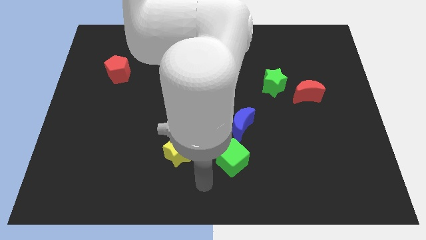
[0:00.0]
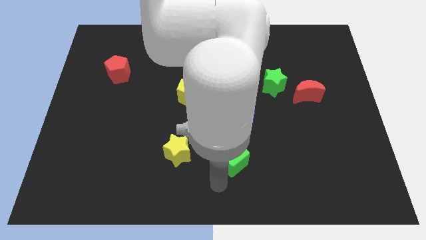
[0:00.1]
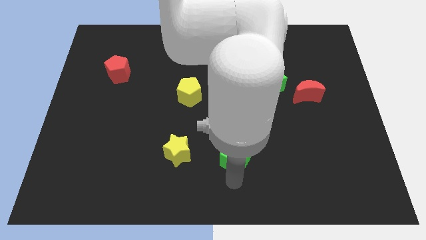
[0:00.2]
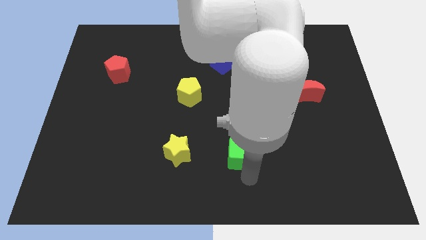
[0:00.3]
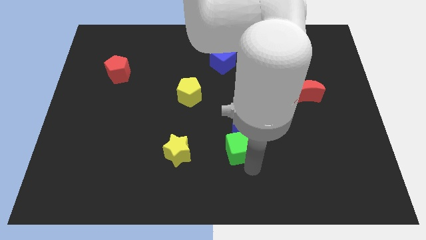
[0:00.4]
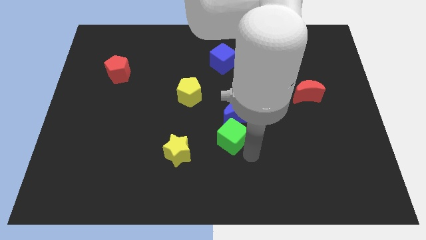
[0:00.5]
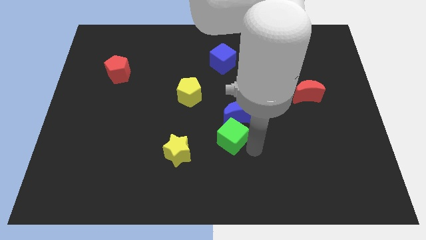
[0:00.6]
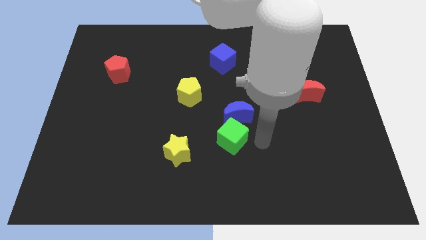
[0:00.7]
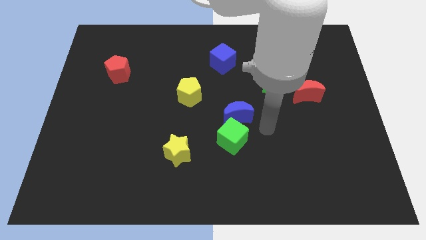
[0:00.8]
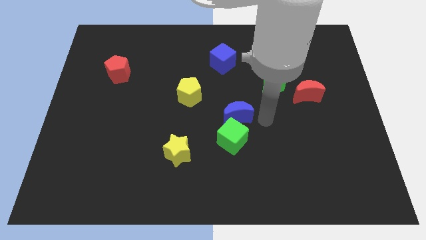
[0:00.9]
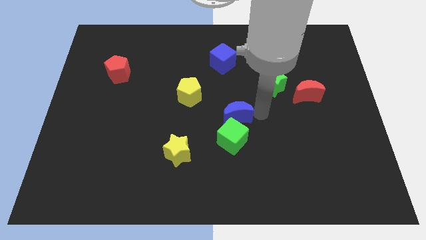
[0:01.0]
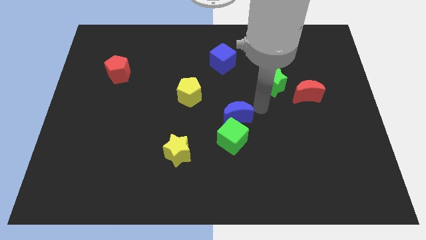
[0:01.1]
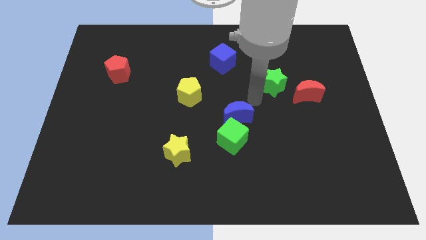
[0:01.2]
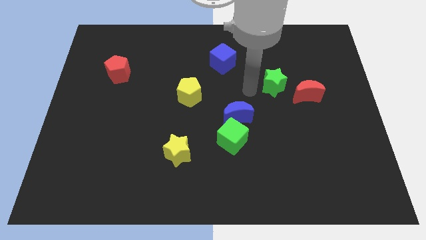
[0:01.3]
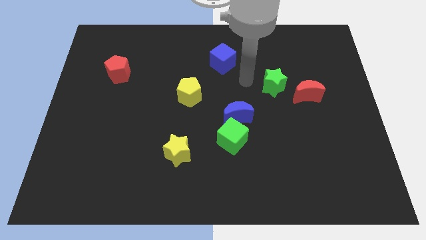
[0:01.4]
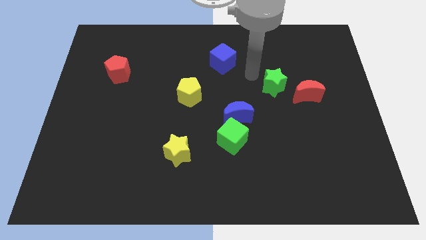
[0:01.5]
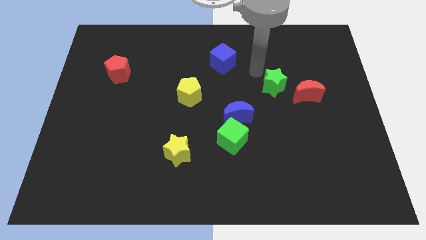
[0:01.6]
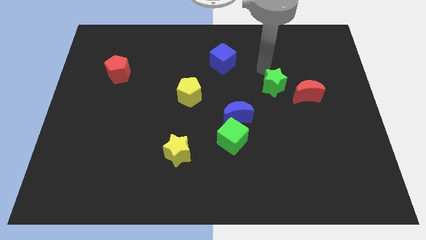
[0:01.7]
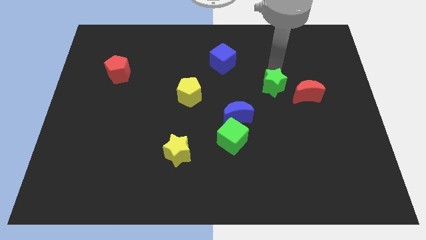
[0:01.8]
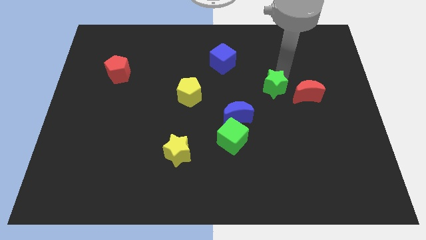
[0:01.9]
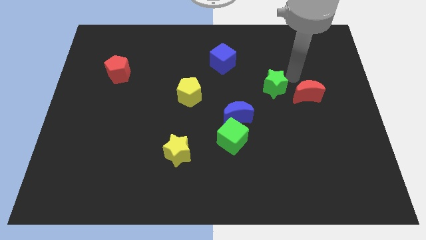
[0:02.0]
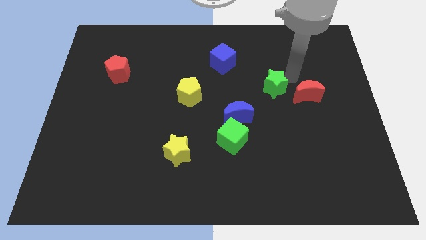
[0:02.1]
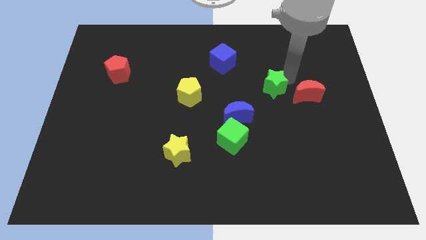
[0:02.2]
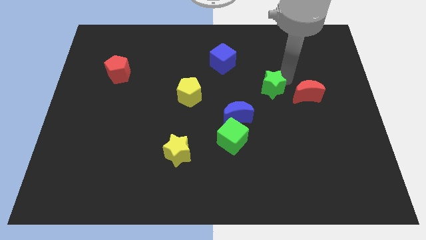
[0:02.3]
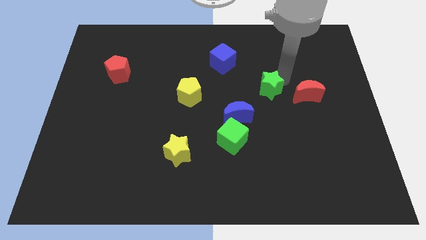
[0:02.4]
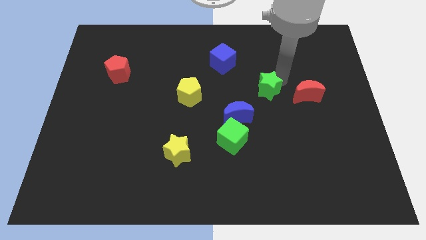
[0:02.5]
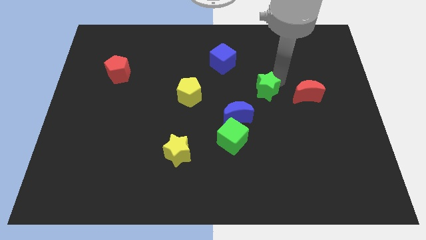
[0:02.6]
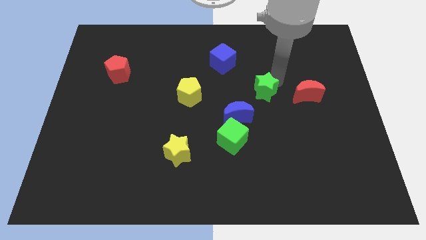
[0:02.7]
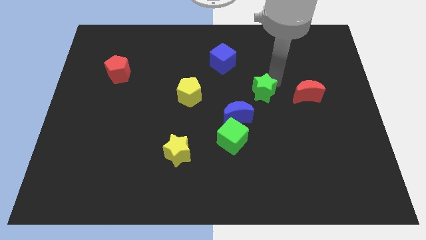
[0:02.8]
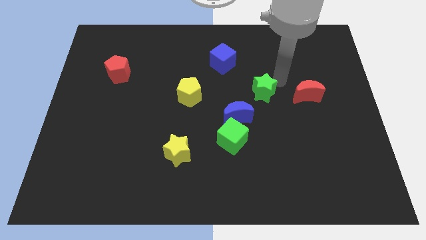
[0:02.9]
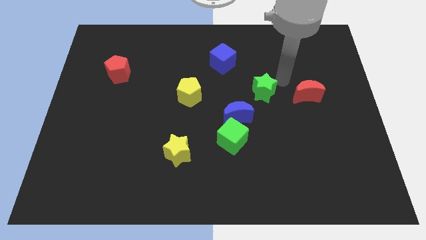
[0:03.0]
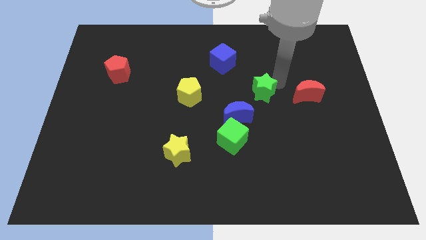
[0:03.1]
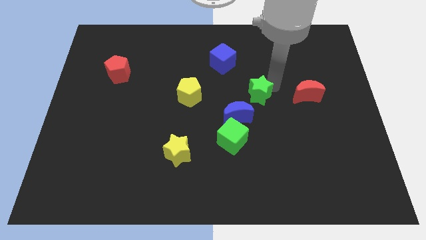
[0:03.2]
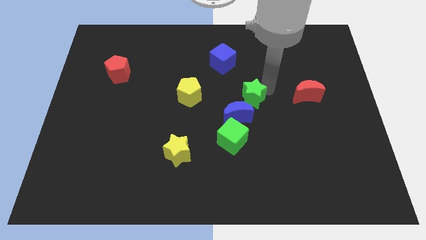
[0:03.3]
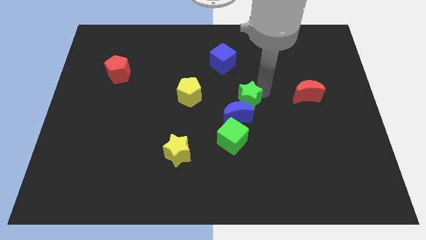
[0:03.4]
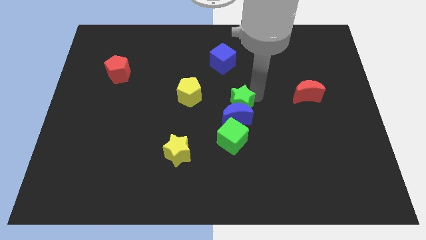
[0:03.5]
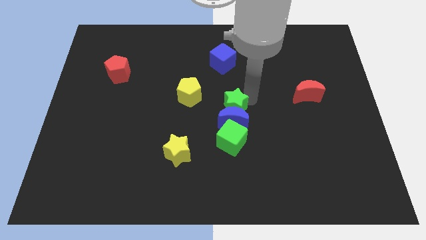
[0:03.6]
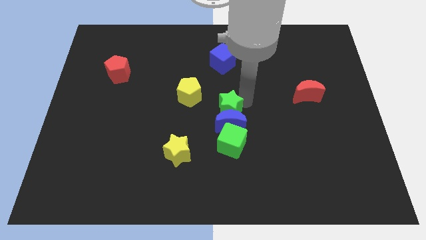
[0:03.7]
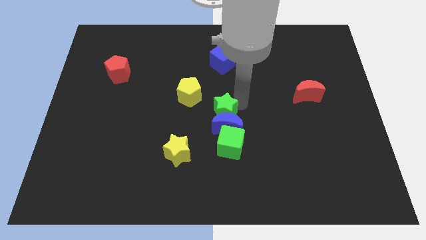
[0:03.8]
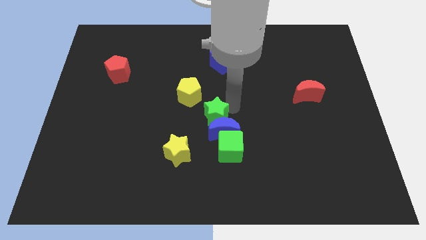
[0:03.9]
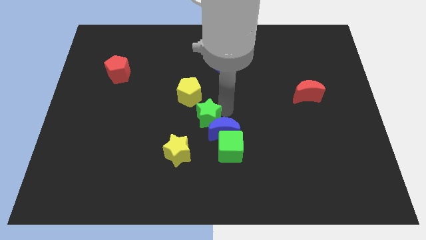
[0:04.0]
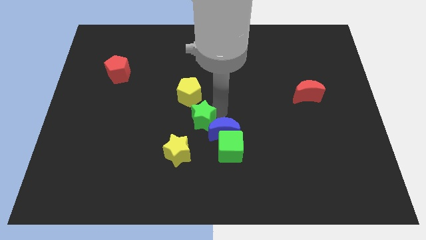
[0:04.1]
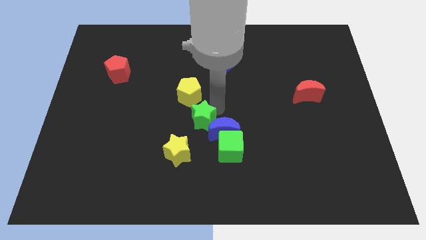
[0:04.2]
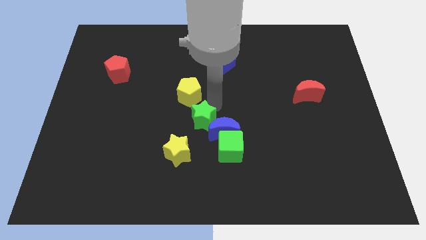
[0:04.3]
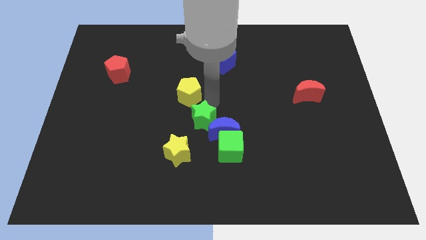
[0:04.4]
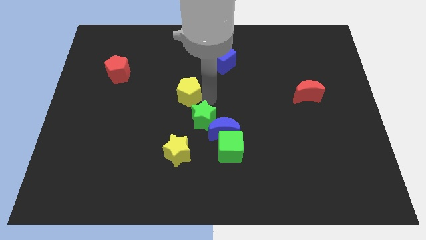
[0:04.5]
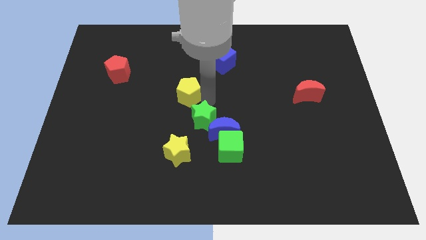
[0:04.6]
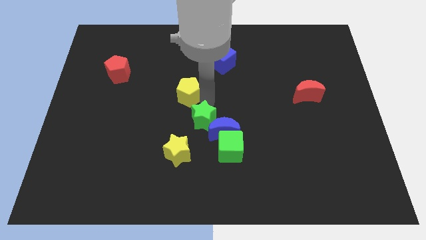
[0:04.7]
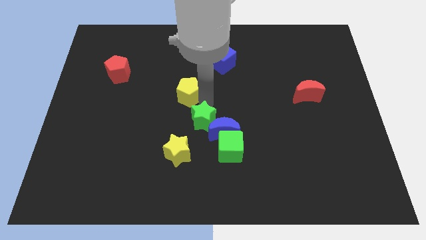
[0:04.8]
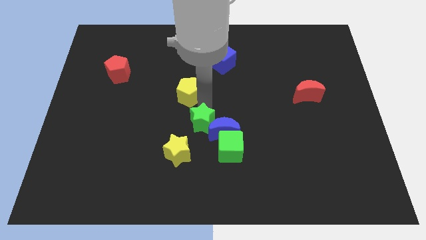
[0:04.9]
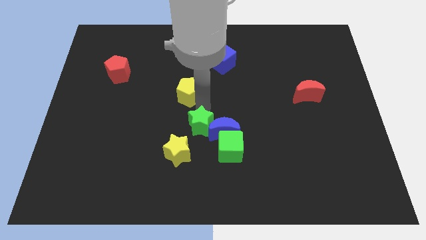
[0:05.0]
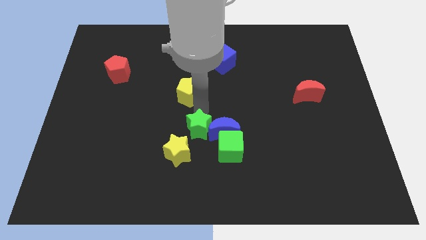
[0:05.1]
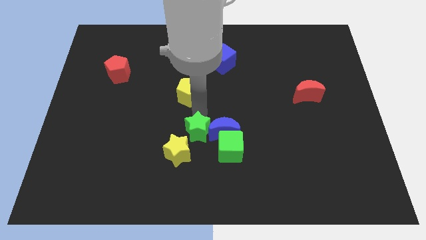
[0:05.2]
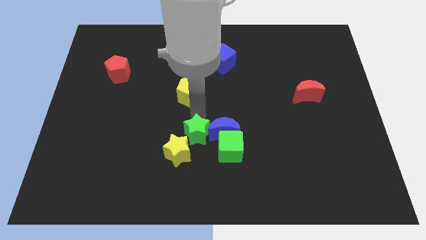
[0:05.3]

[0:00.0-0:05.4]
slide the green star to the yellow star

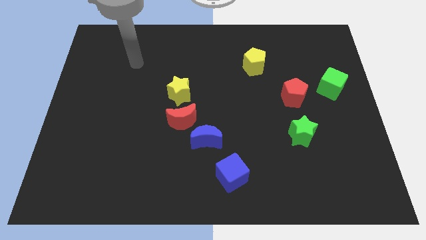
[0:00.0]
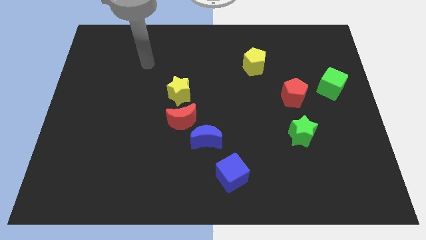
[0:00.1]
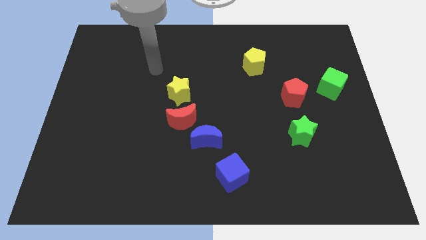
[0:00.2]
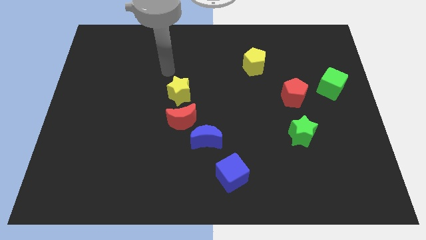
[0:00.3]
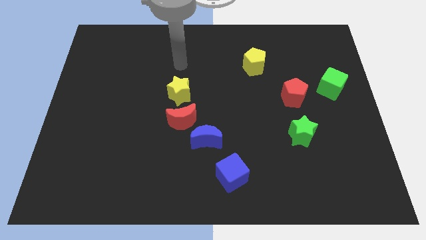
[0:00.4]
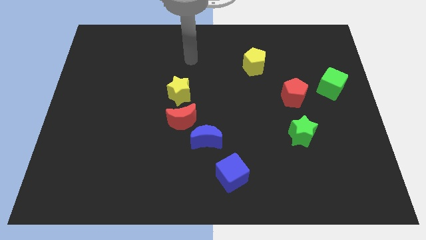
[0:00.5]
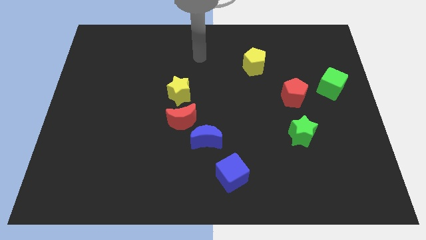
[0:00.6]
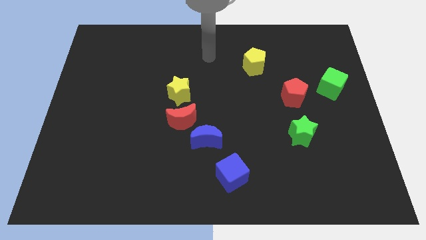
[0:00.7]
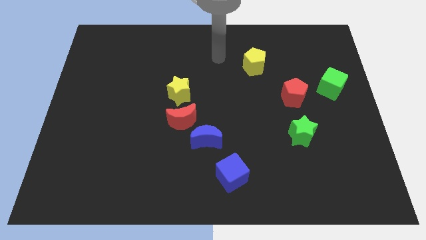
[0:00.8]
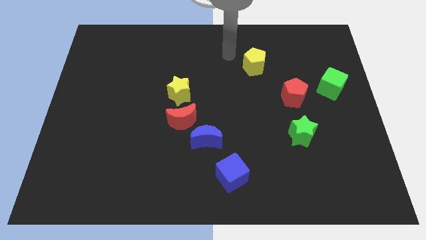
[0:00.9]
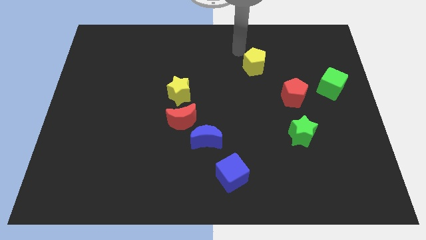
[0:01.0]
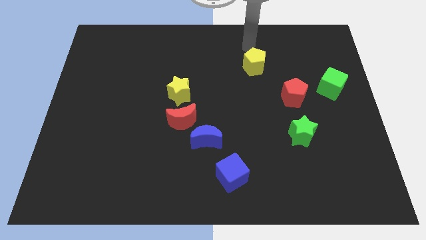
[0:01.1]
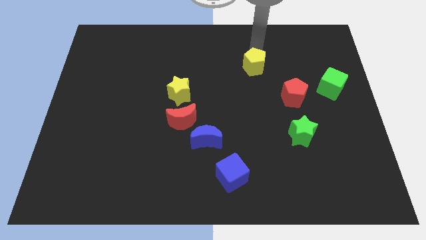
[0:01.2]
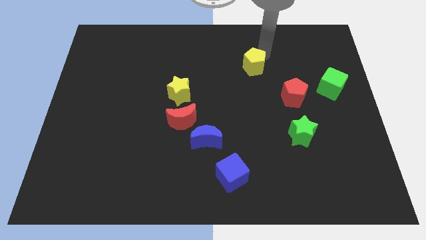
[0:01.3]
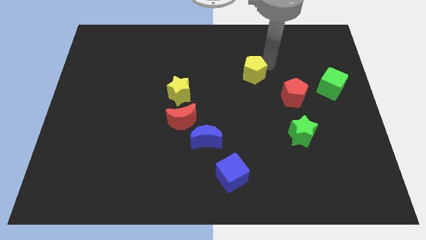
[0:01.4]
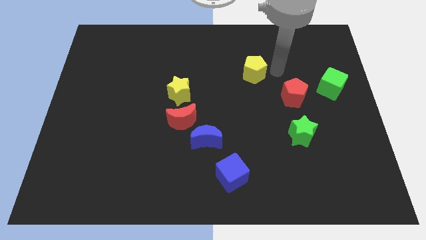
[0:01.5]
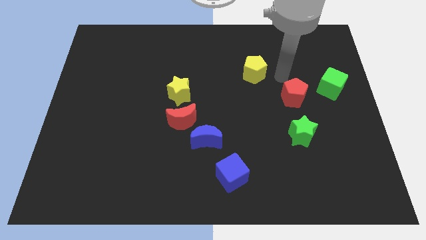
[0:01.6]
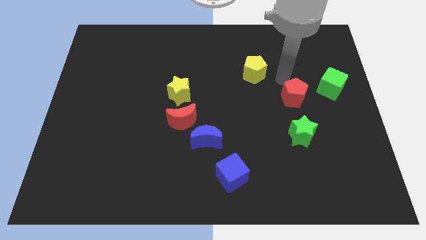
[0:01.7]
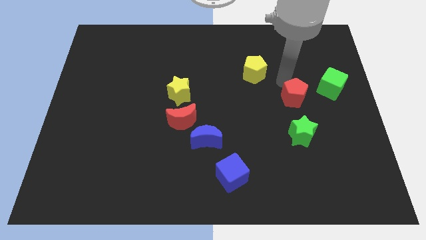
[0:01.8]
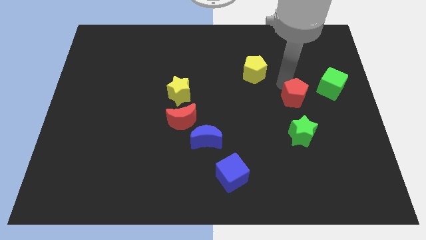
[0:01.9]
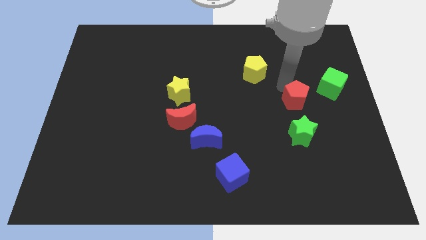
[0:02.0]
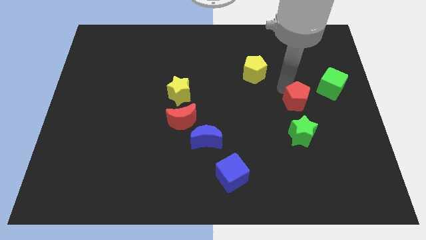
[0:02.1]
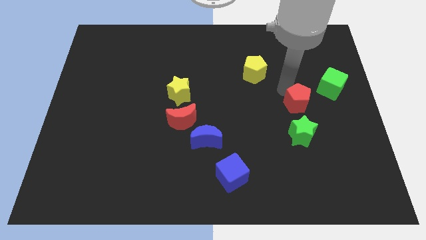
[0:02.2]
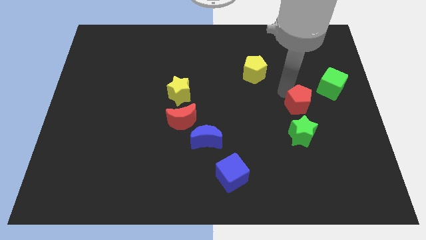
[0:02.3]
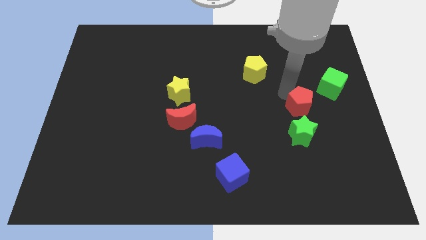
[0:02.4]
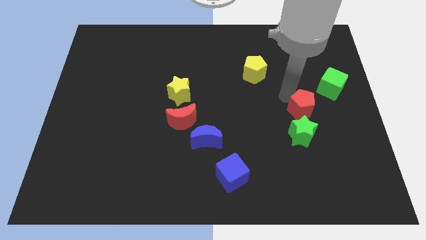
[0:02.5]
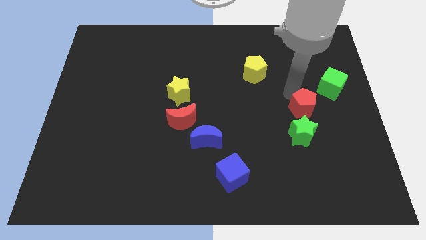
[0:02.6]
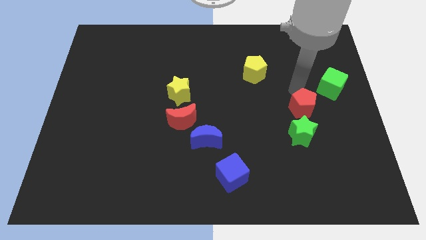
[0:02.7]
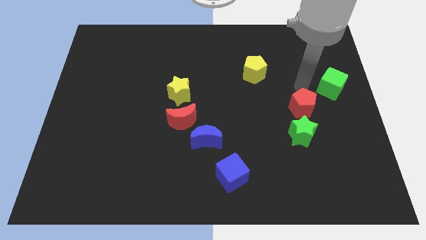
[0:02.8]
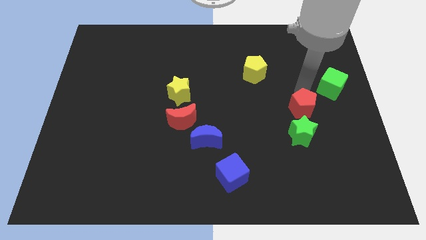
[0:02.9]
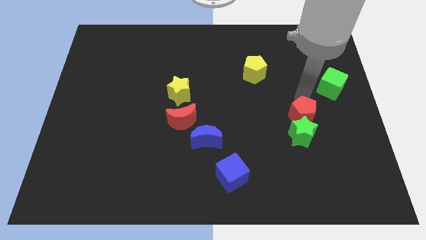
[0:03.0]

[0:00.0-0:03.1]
slide the red pentagon to the green star
